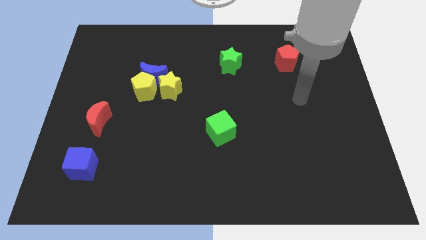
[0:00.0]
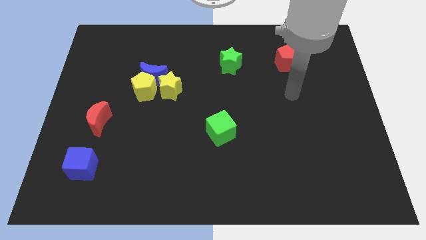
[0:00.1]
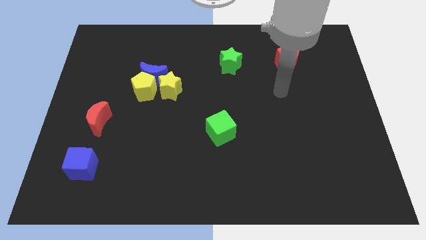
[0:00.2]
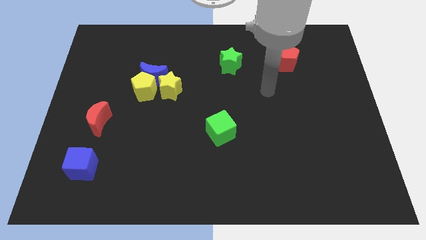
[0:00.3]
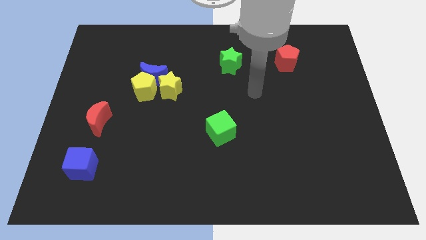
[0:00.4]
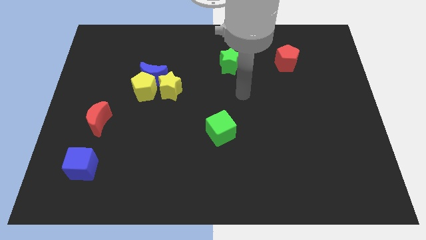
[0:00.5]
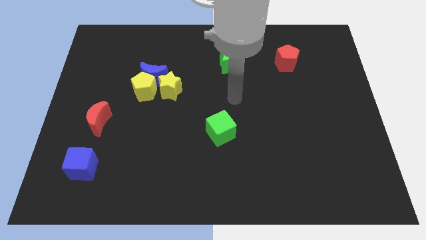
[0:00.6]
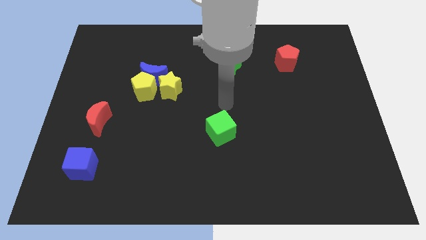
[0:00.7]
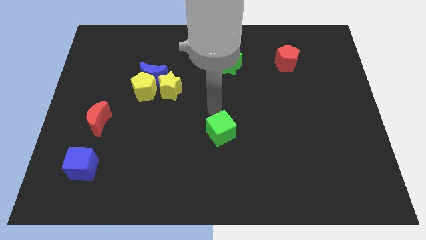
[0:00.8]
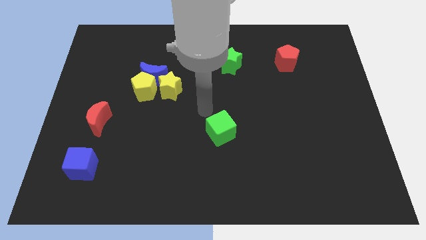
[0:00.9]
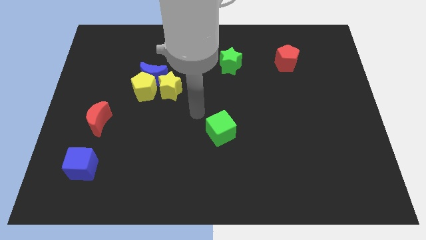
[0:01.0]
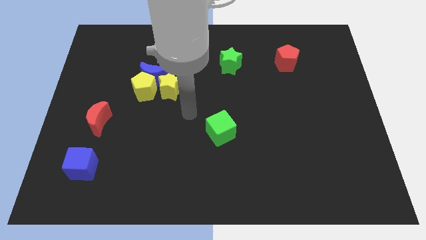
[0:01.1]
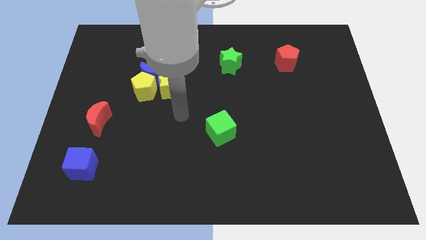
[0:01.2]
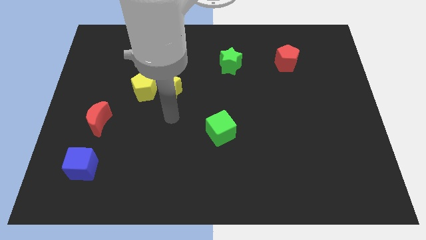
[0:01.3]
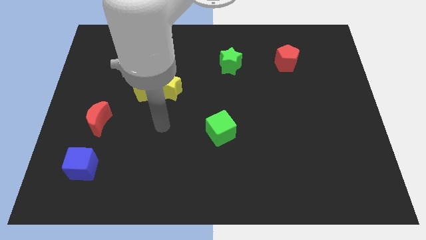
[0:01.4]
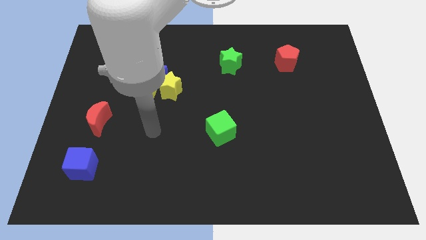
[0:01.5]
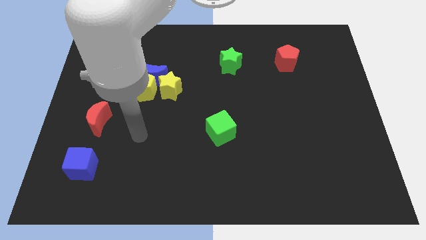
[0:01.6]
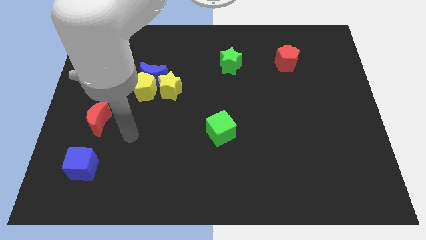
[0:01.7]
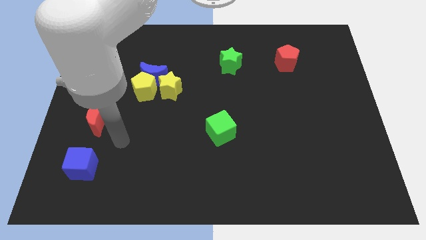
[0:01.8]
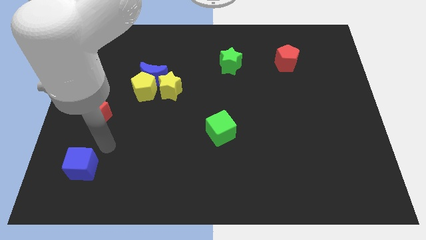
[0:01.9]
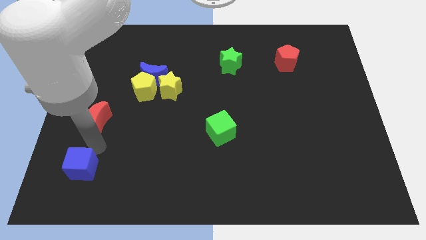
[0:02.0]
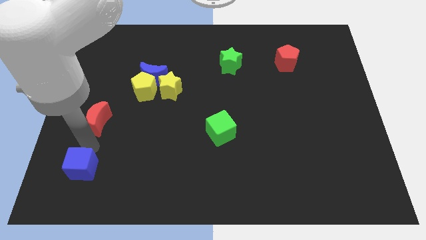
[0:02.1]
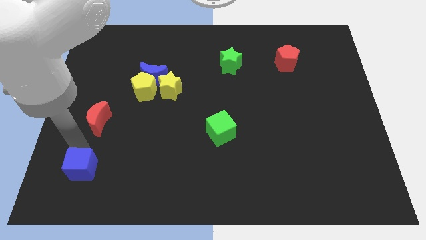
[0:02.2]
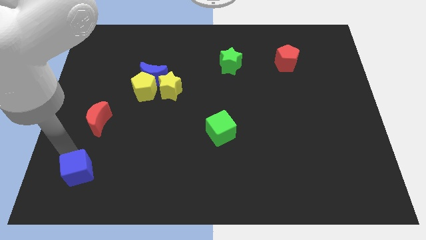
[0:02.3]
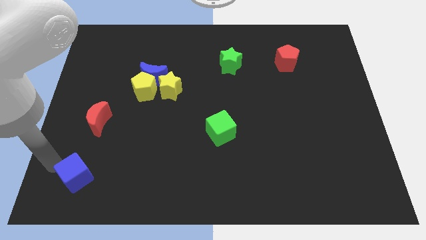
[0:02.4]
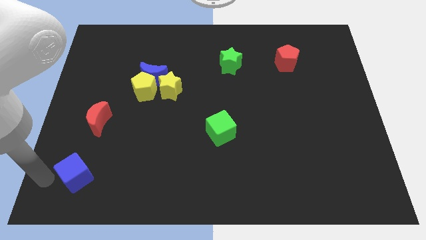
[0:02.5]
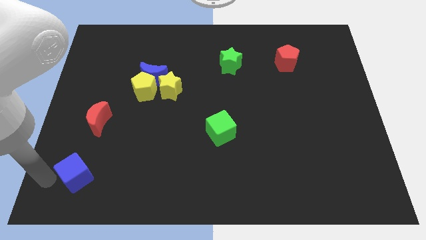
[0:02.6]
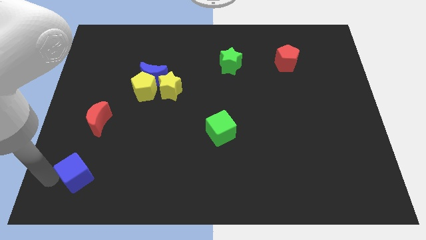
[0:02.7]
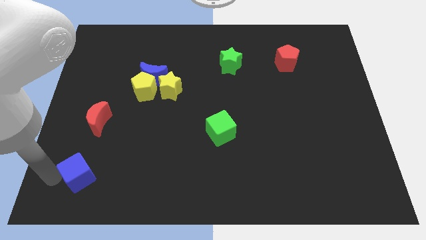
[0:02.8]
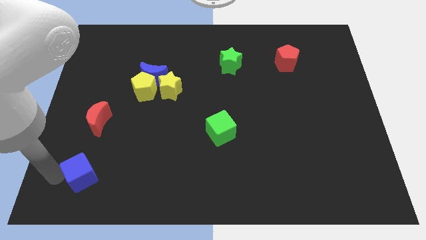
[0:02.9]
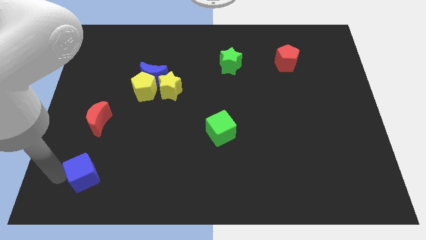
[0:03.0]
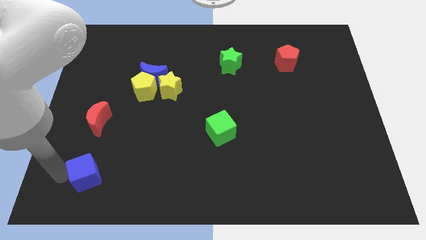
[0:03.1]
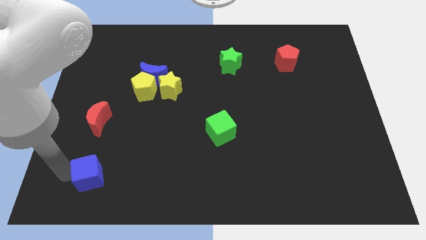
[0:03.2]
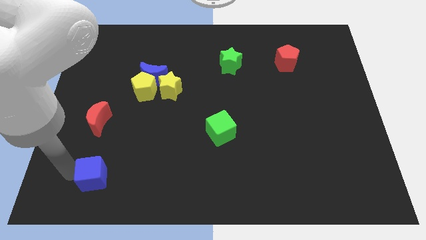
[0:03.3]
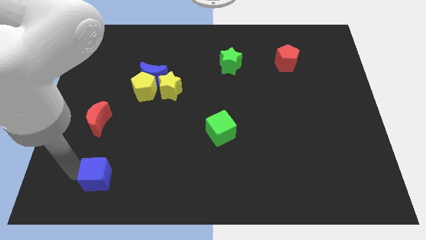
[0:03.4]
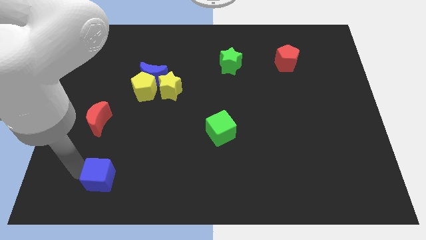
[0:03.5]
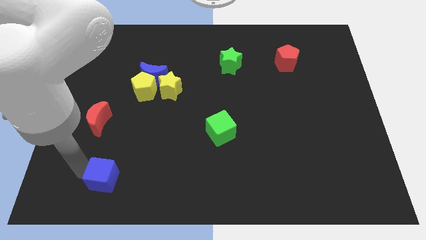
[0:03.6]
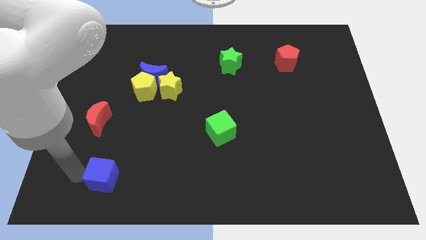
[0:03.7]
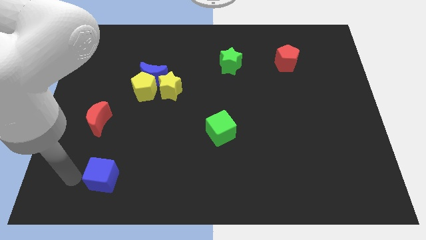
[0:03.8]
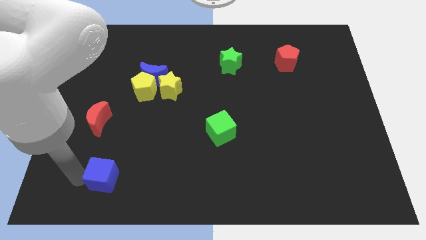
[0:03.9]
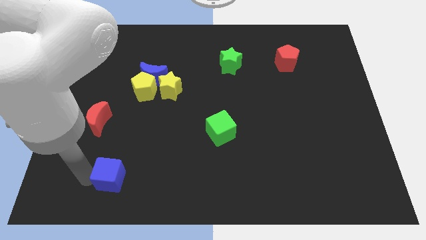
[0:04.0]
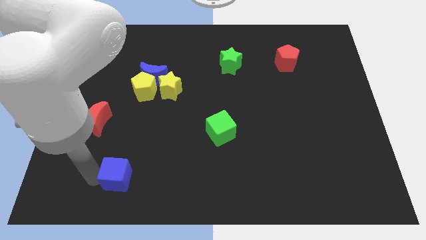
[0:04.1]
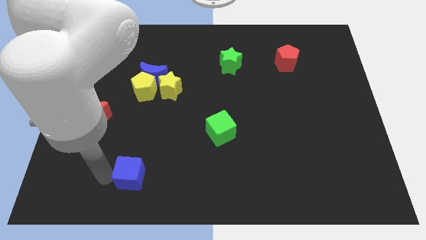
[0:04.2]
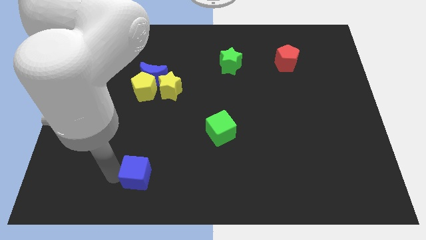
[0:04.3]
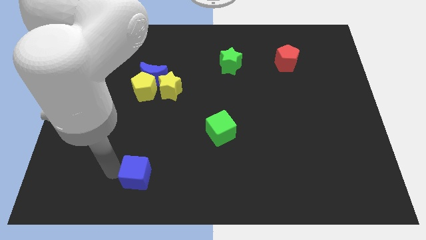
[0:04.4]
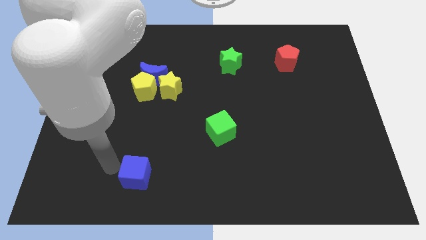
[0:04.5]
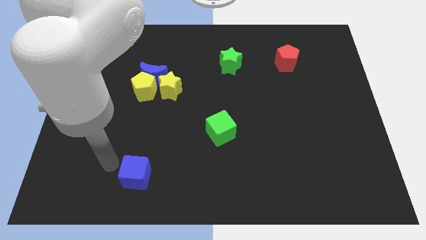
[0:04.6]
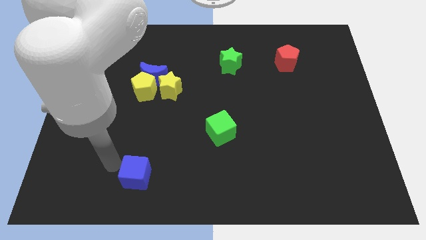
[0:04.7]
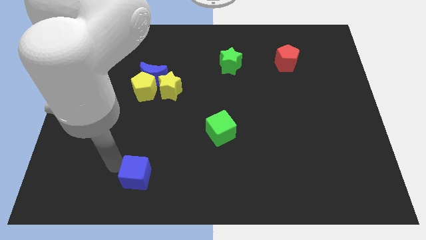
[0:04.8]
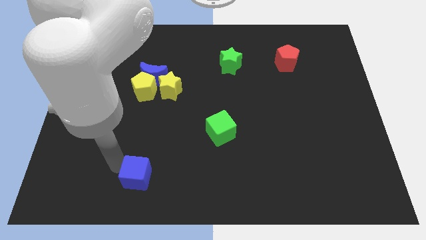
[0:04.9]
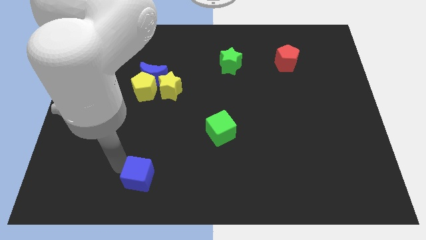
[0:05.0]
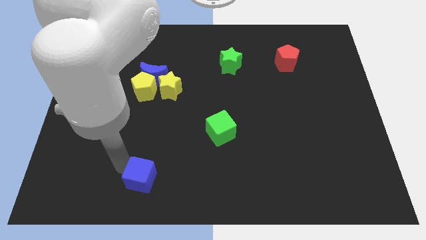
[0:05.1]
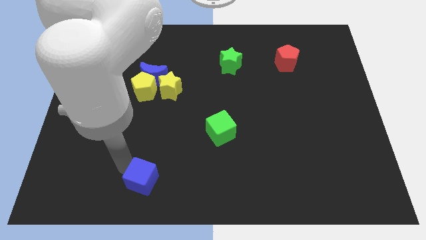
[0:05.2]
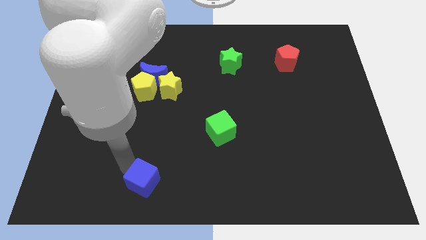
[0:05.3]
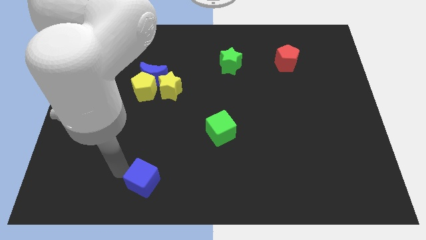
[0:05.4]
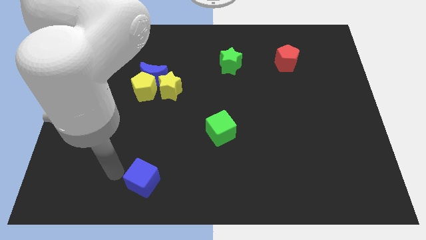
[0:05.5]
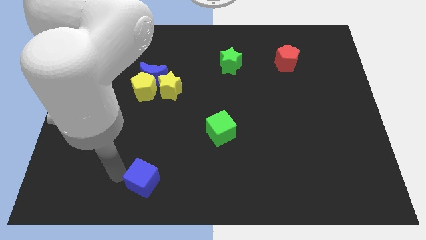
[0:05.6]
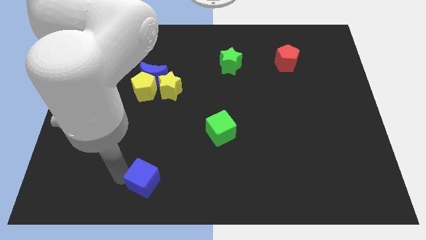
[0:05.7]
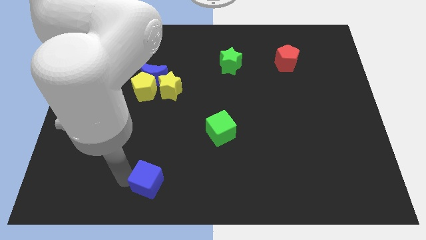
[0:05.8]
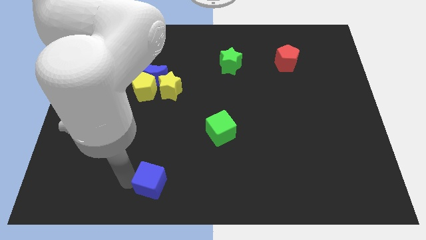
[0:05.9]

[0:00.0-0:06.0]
slide the blue cube to the bottom
